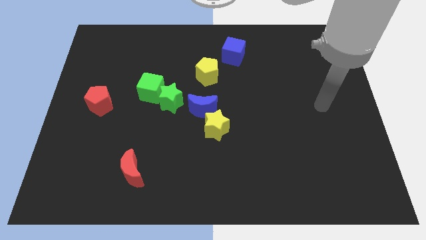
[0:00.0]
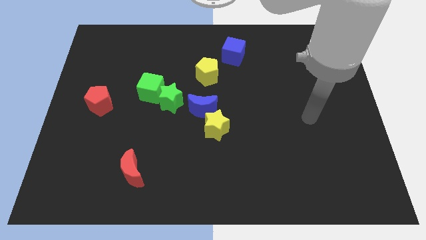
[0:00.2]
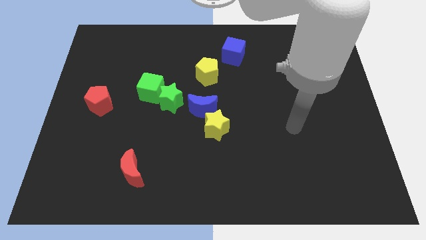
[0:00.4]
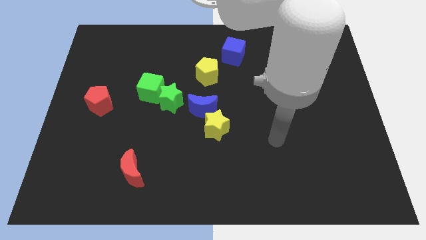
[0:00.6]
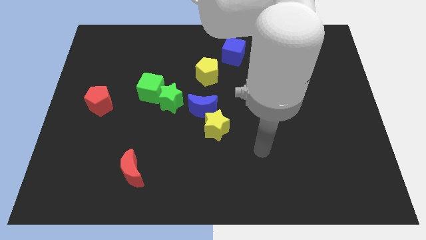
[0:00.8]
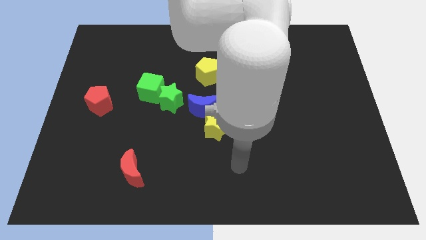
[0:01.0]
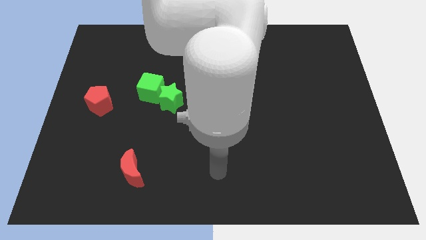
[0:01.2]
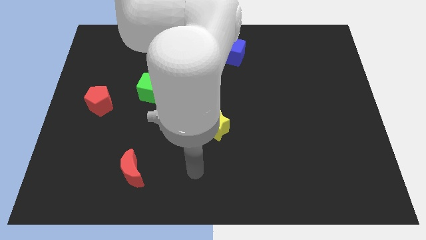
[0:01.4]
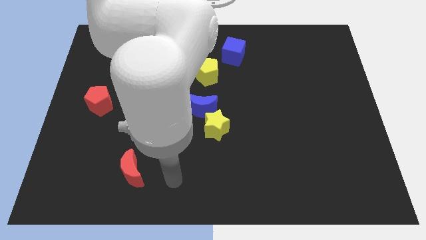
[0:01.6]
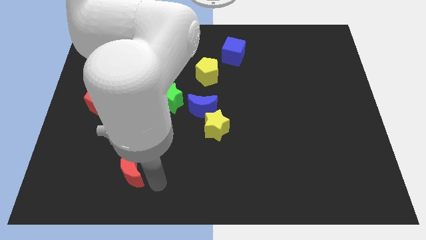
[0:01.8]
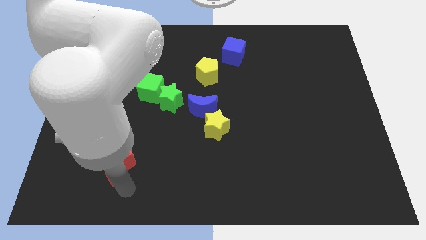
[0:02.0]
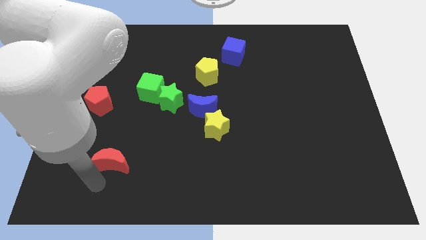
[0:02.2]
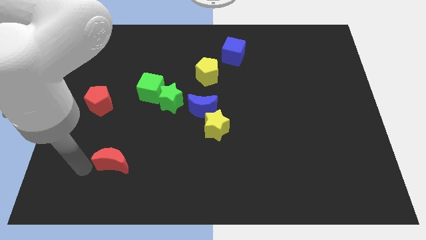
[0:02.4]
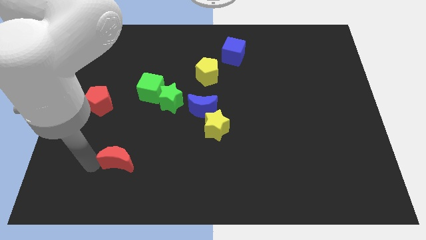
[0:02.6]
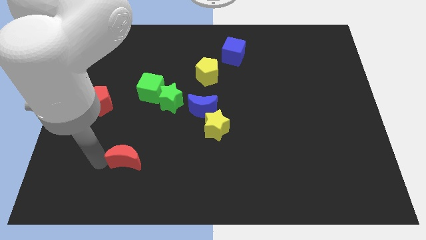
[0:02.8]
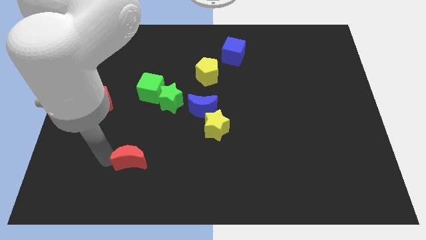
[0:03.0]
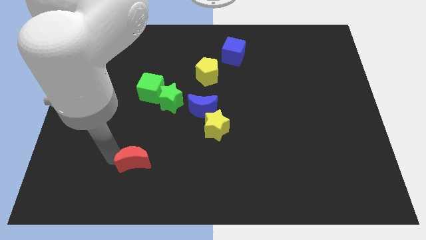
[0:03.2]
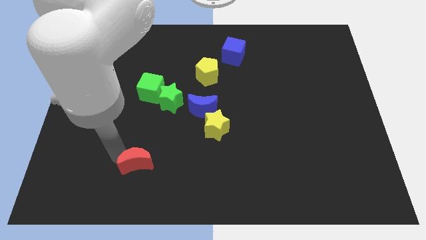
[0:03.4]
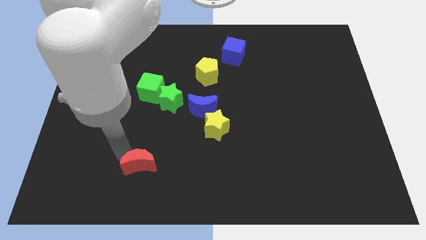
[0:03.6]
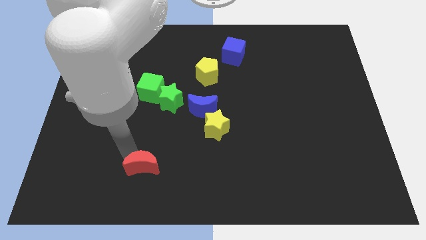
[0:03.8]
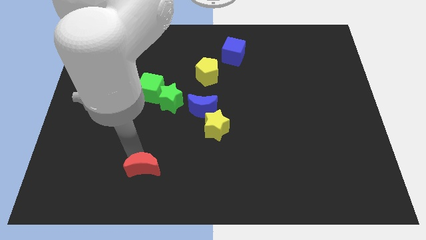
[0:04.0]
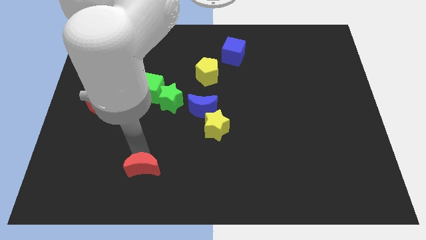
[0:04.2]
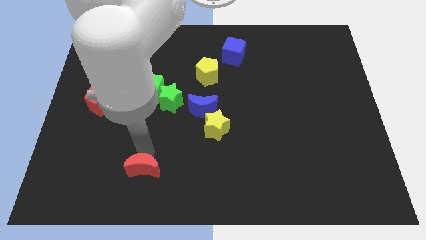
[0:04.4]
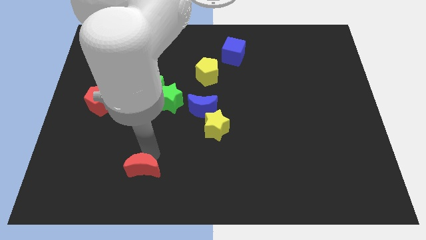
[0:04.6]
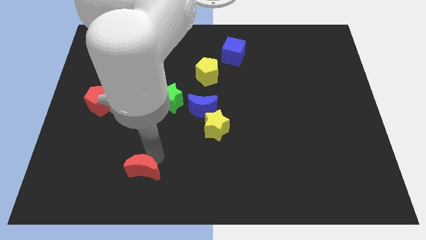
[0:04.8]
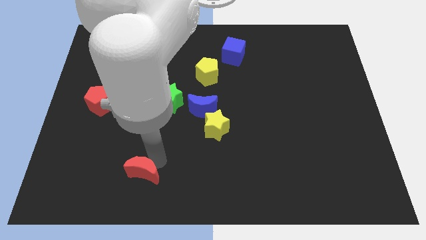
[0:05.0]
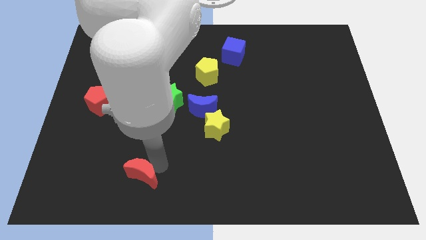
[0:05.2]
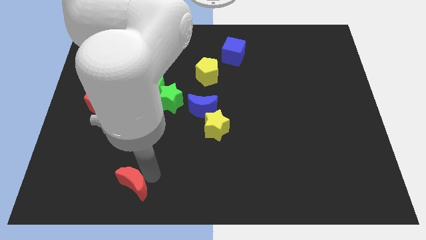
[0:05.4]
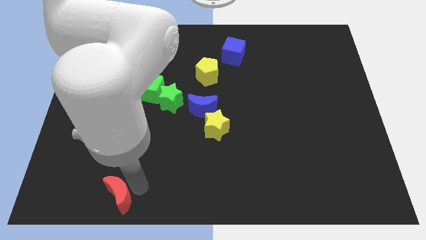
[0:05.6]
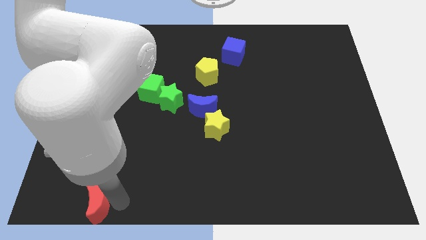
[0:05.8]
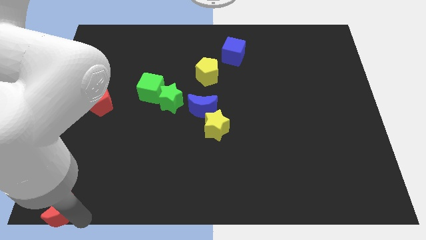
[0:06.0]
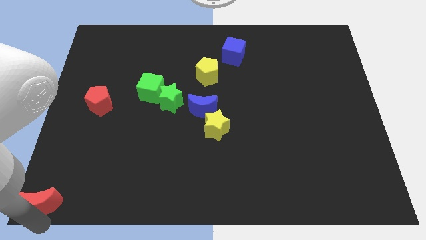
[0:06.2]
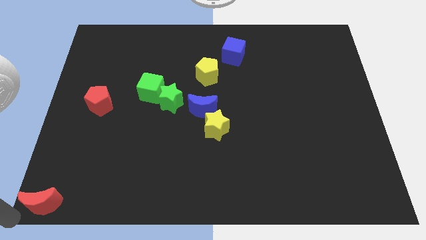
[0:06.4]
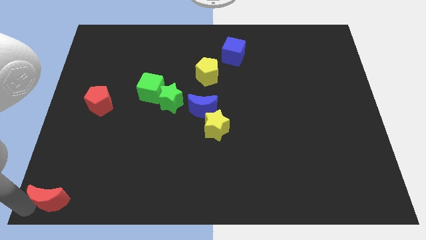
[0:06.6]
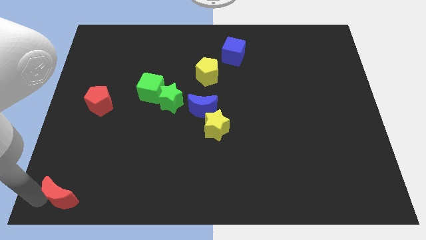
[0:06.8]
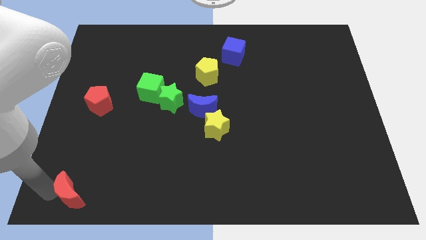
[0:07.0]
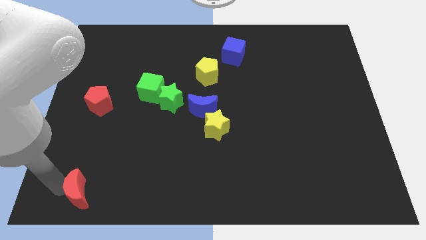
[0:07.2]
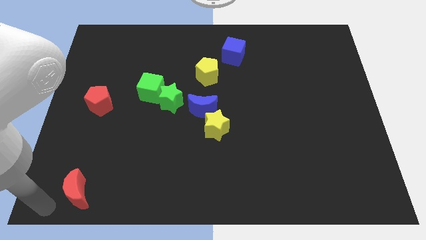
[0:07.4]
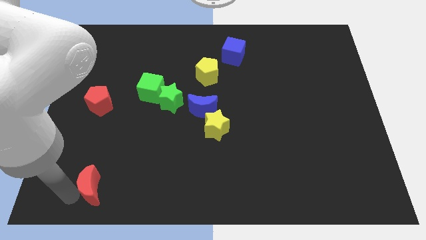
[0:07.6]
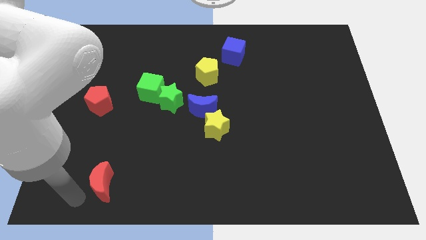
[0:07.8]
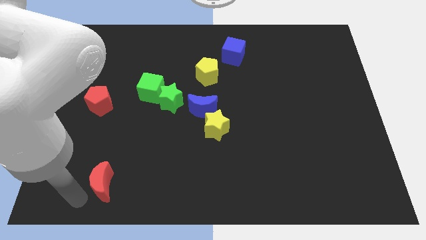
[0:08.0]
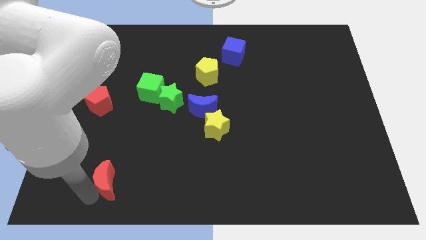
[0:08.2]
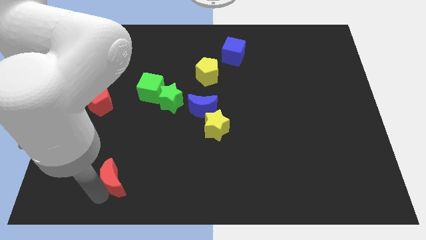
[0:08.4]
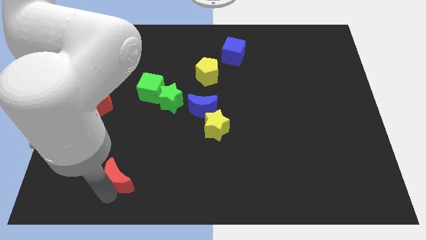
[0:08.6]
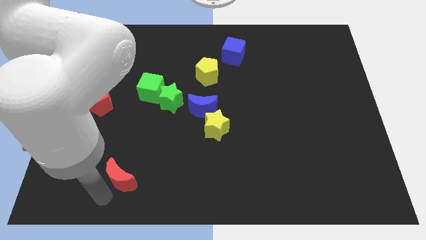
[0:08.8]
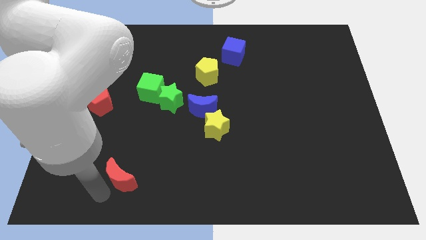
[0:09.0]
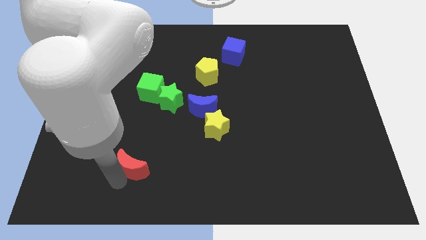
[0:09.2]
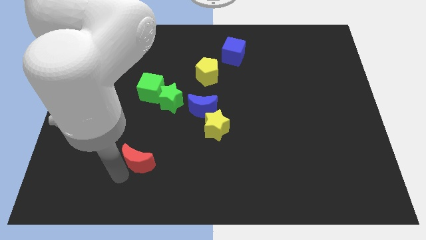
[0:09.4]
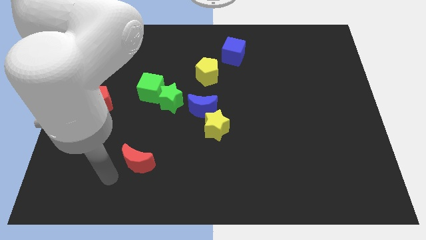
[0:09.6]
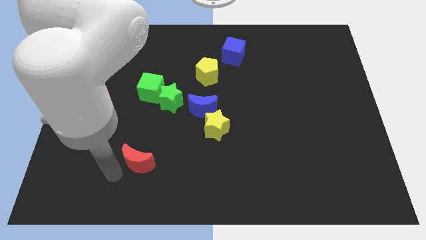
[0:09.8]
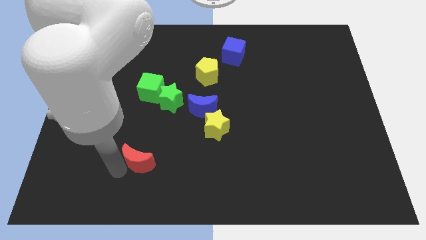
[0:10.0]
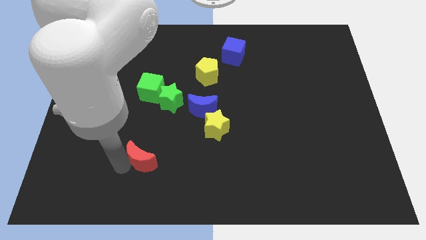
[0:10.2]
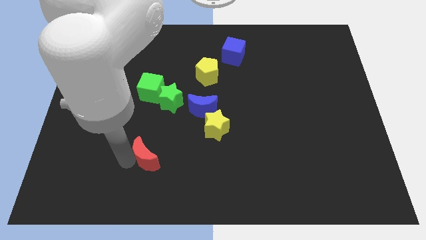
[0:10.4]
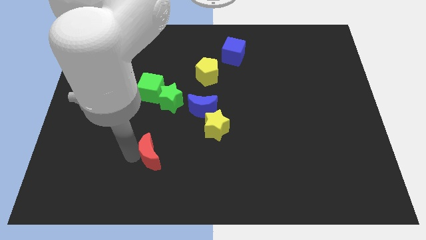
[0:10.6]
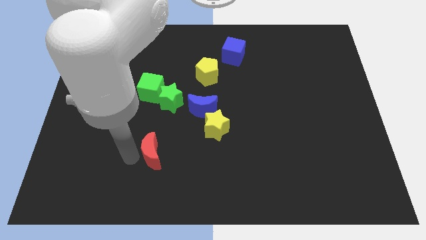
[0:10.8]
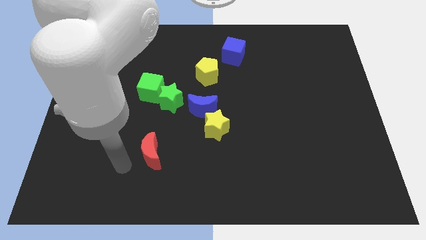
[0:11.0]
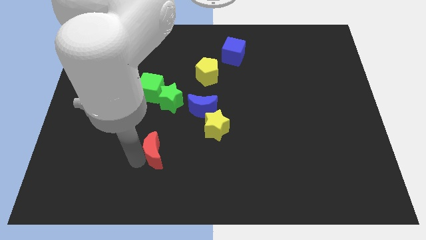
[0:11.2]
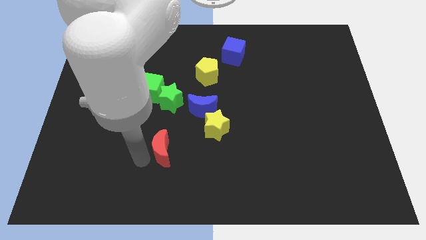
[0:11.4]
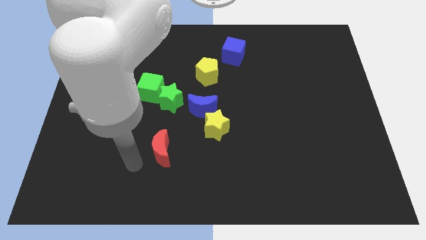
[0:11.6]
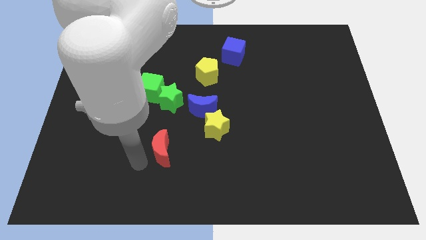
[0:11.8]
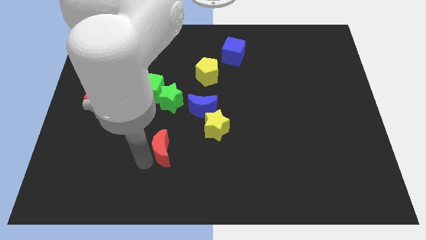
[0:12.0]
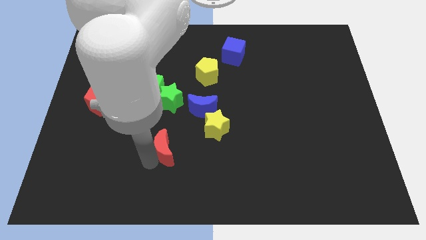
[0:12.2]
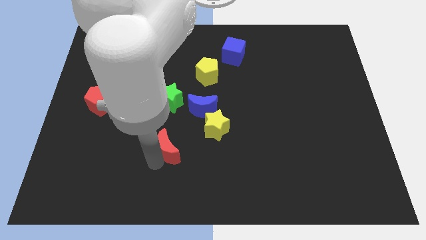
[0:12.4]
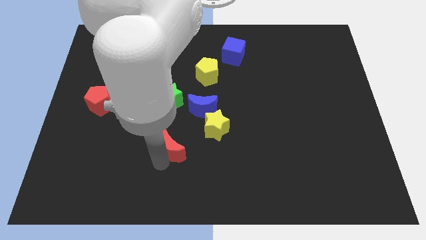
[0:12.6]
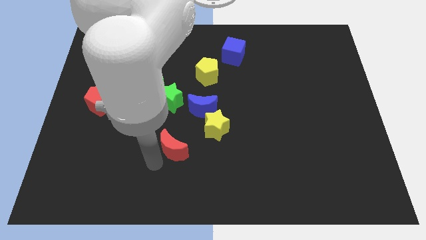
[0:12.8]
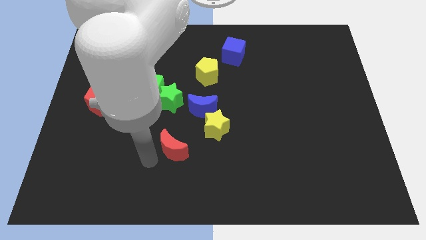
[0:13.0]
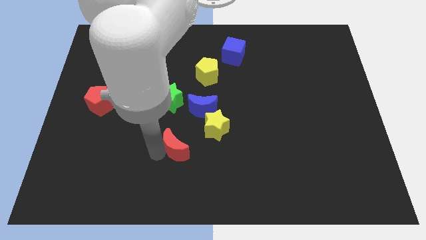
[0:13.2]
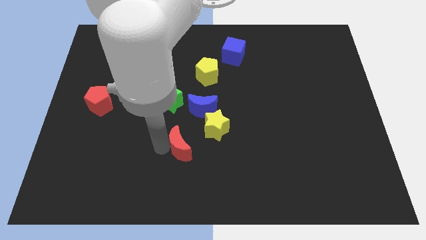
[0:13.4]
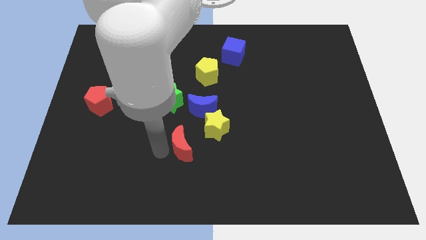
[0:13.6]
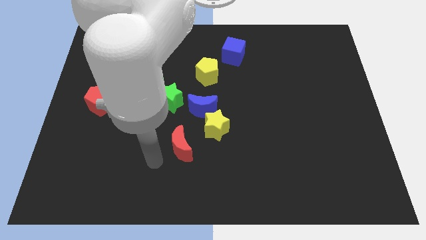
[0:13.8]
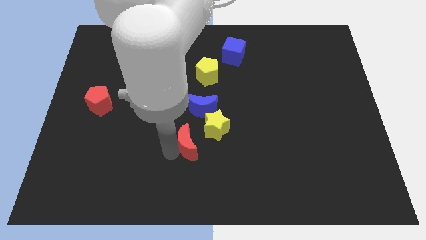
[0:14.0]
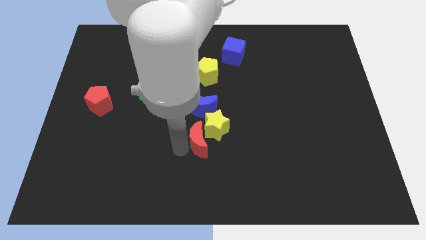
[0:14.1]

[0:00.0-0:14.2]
slide the red moon close to the yellow star
